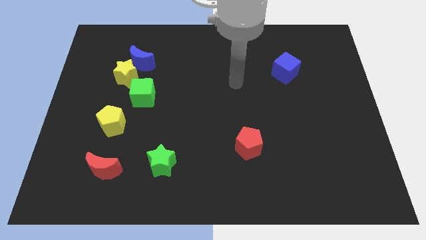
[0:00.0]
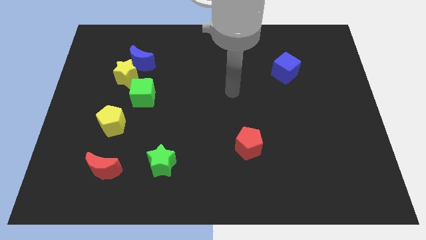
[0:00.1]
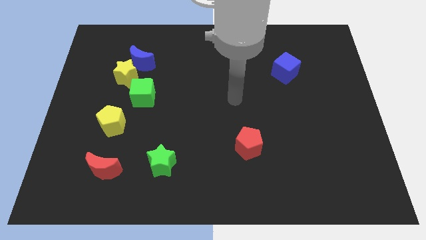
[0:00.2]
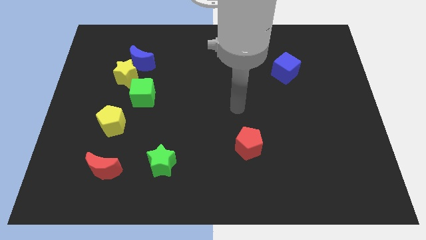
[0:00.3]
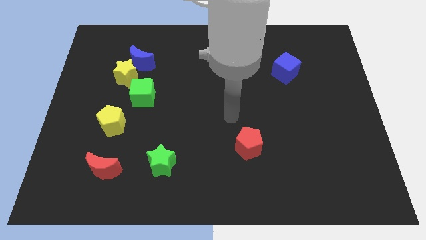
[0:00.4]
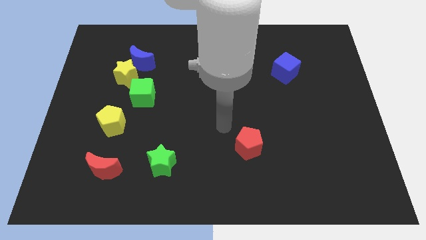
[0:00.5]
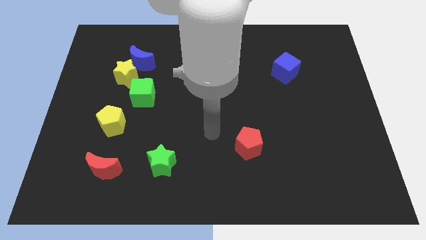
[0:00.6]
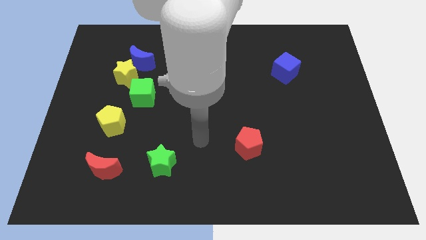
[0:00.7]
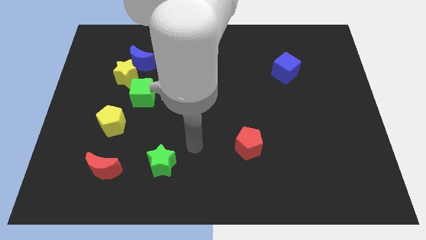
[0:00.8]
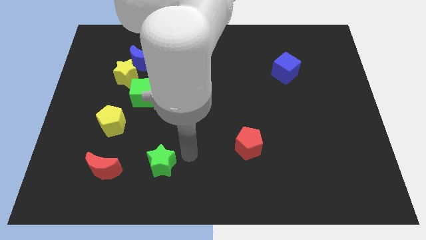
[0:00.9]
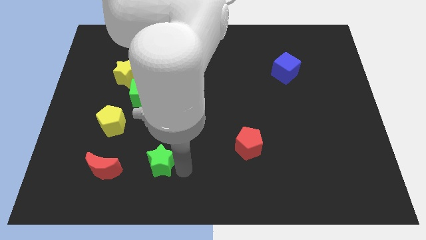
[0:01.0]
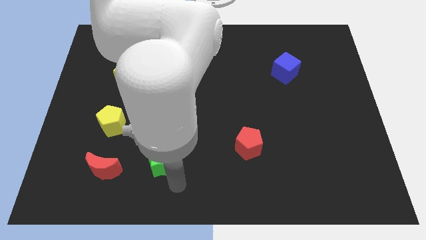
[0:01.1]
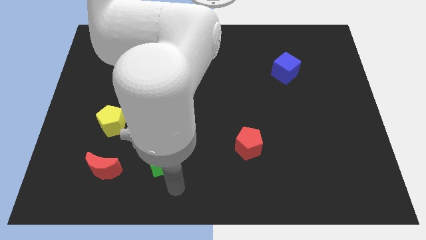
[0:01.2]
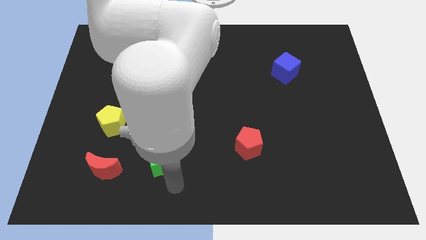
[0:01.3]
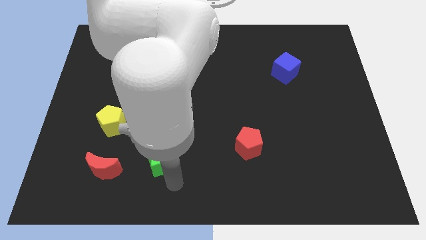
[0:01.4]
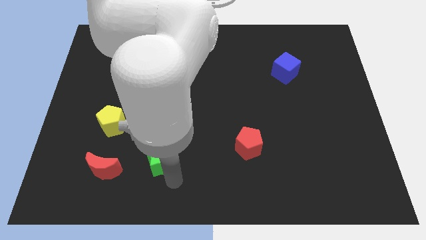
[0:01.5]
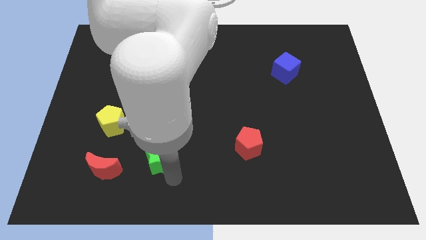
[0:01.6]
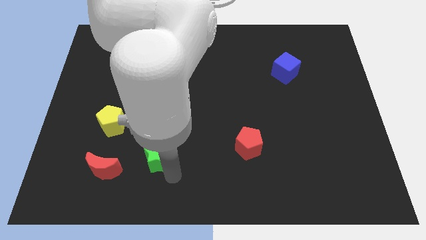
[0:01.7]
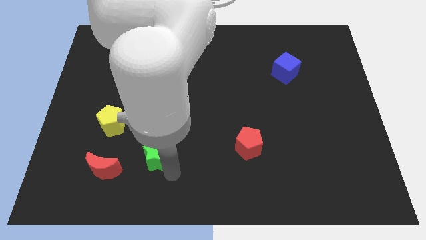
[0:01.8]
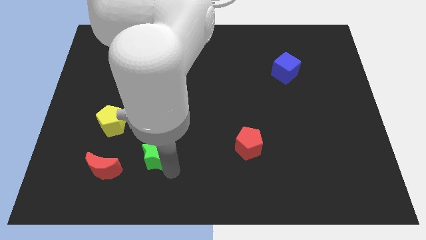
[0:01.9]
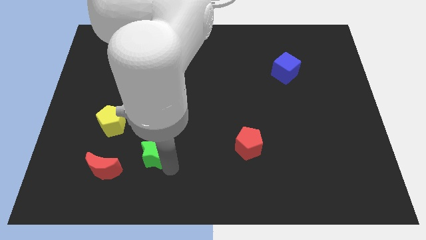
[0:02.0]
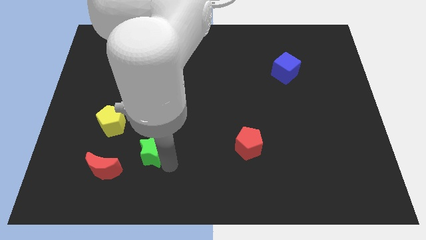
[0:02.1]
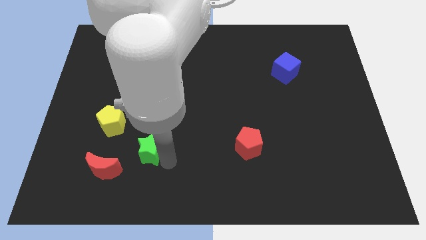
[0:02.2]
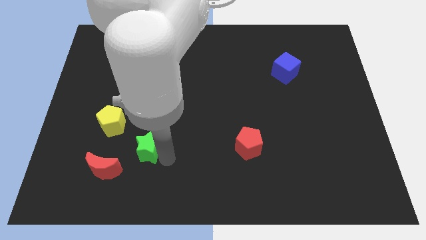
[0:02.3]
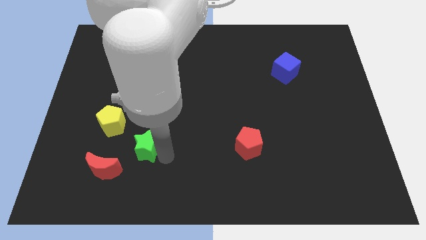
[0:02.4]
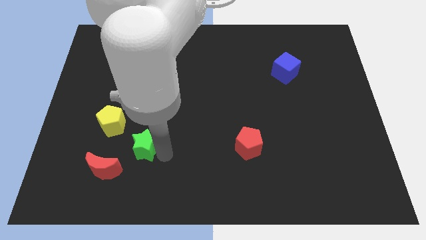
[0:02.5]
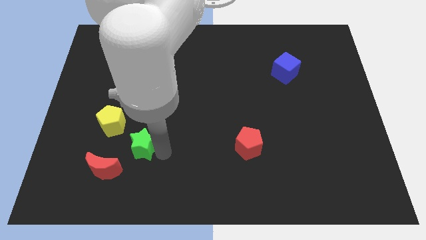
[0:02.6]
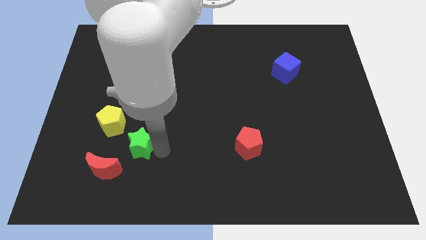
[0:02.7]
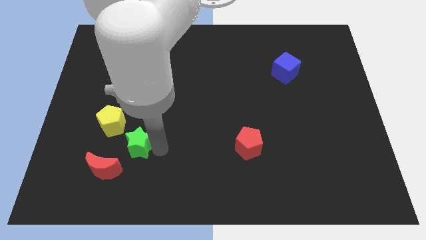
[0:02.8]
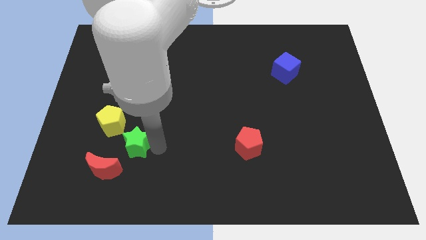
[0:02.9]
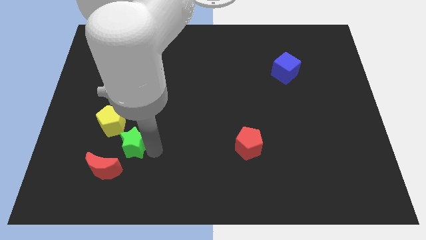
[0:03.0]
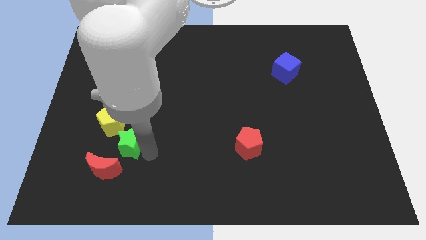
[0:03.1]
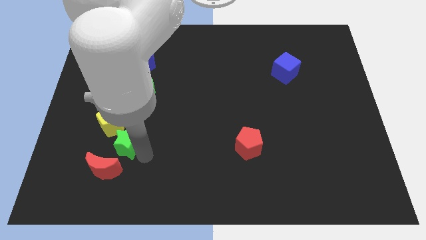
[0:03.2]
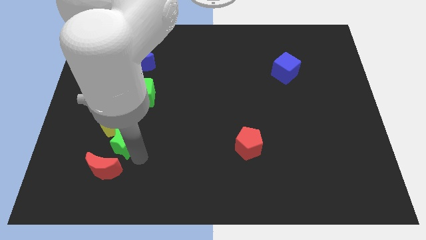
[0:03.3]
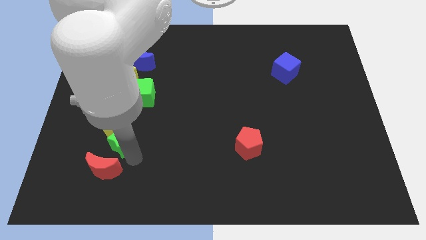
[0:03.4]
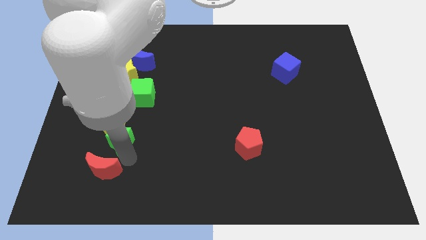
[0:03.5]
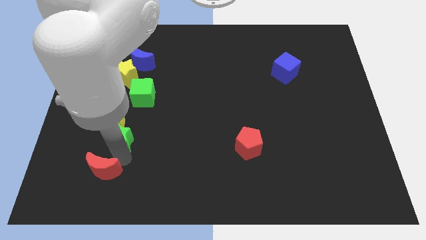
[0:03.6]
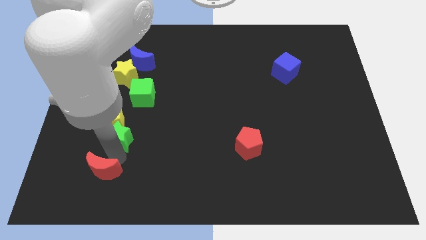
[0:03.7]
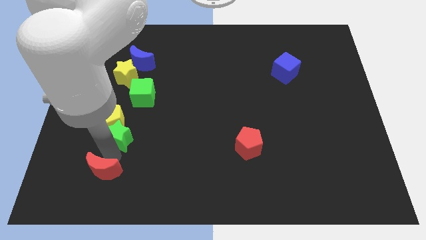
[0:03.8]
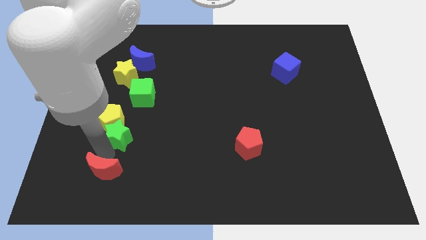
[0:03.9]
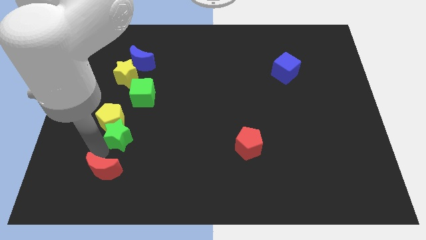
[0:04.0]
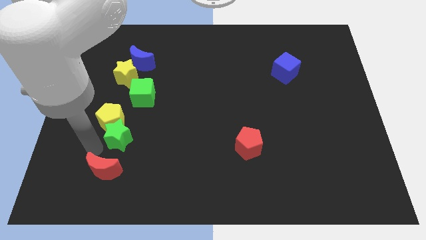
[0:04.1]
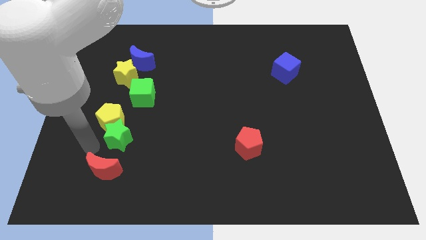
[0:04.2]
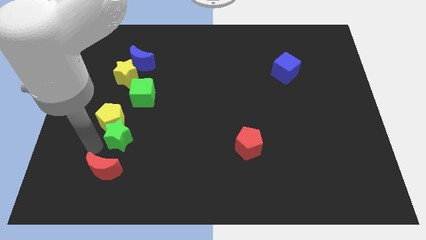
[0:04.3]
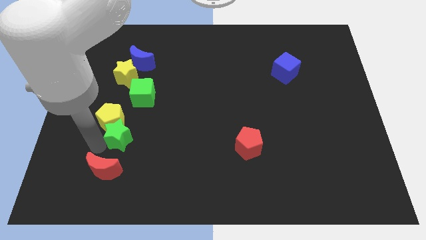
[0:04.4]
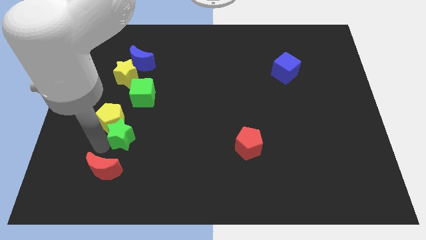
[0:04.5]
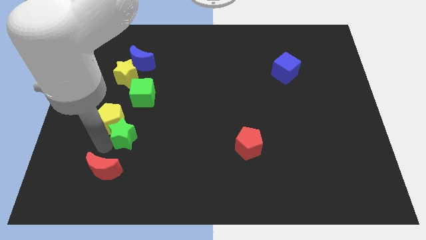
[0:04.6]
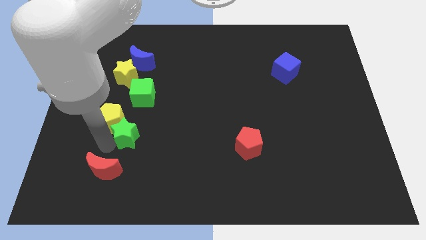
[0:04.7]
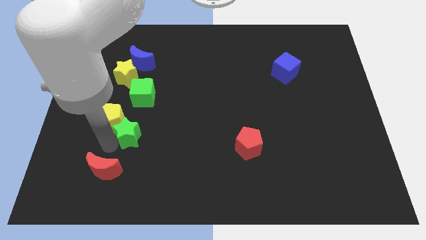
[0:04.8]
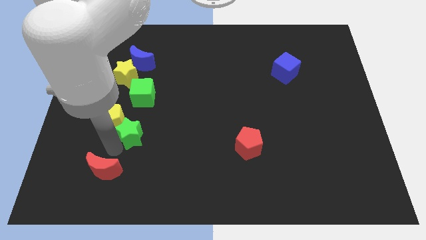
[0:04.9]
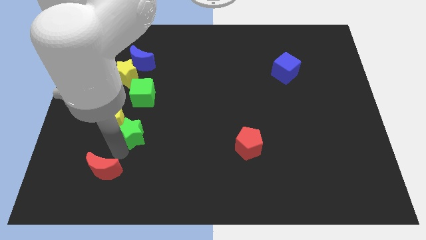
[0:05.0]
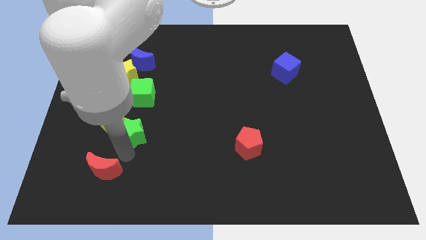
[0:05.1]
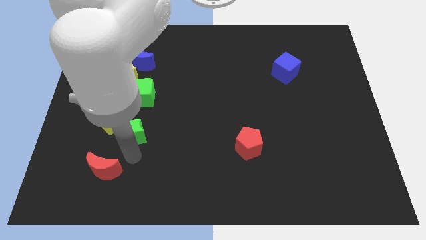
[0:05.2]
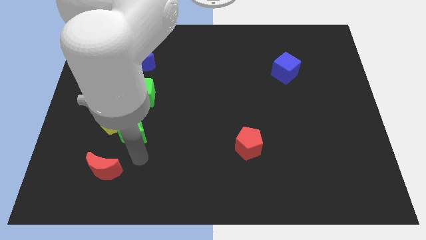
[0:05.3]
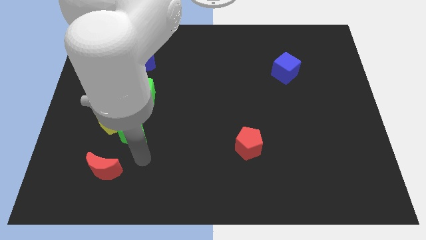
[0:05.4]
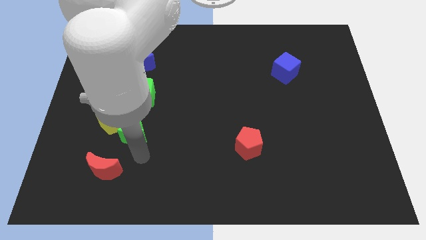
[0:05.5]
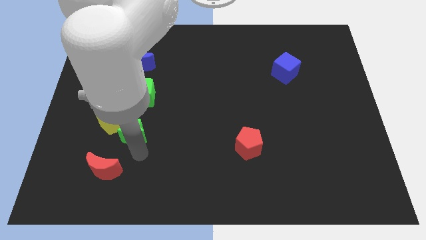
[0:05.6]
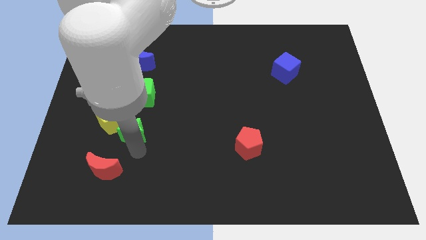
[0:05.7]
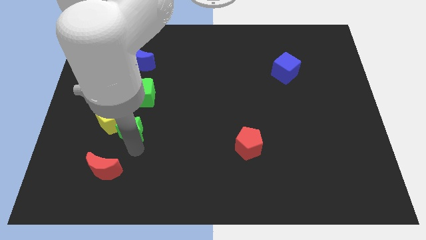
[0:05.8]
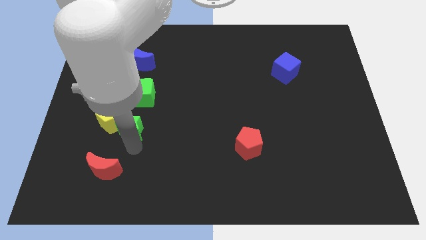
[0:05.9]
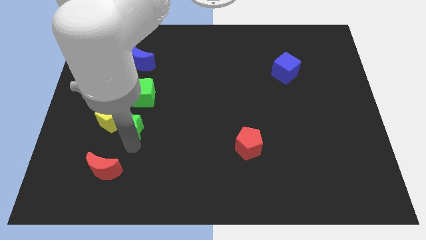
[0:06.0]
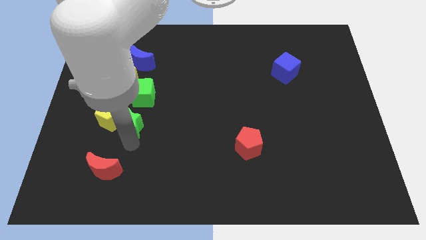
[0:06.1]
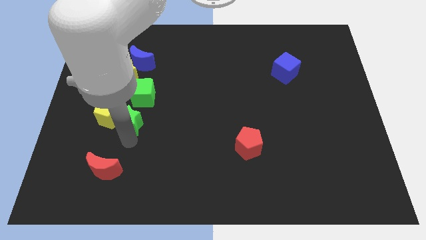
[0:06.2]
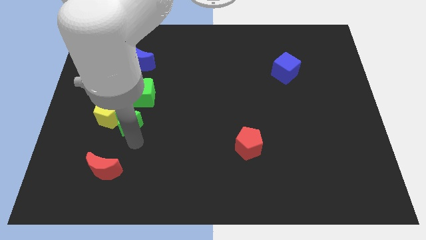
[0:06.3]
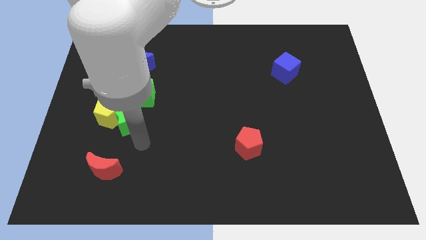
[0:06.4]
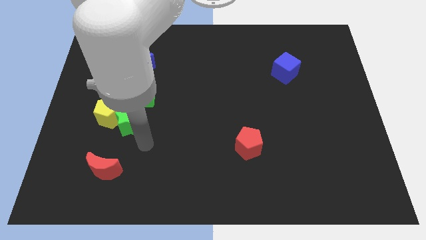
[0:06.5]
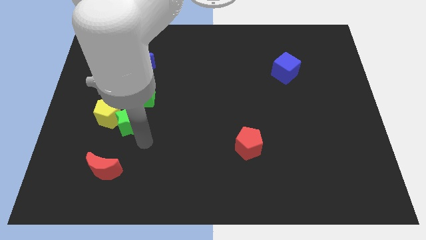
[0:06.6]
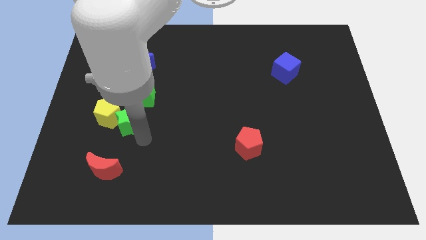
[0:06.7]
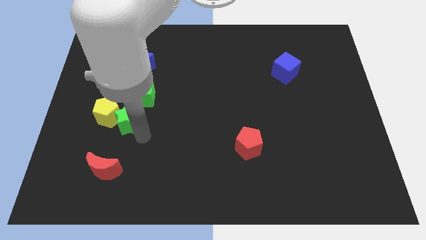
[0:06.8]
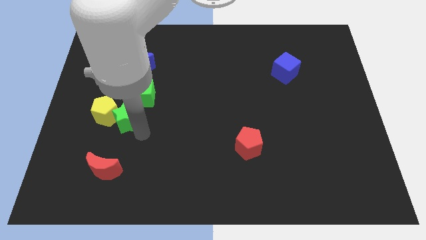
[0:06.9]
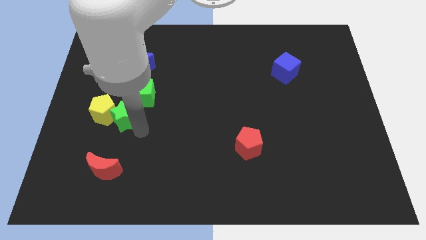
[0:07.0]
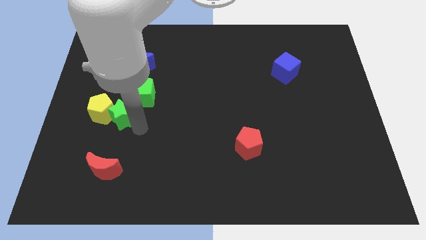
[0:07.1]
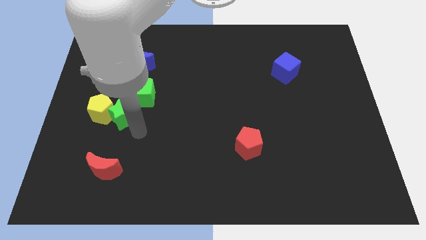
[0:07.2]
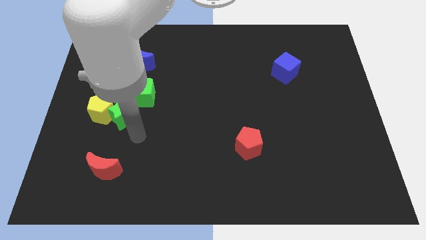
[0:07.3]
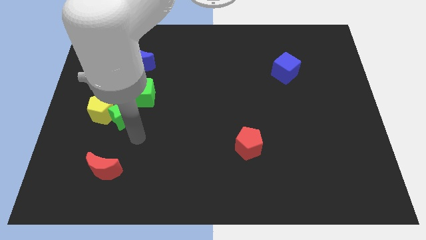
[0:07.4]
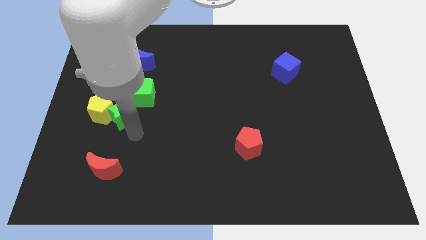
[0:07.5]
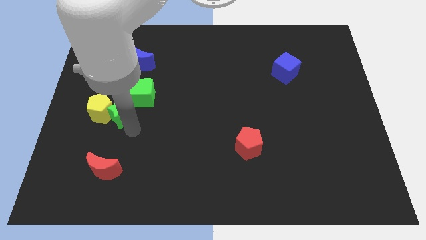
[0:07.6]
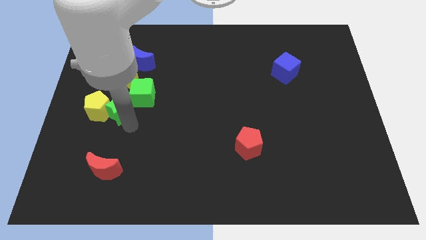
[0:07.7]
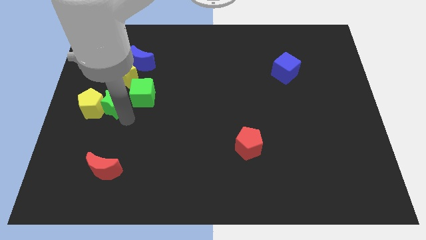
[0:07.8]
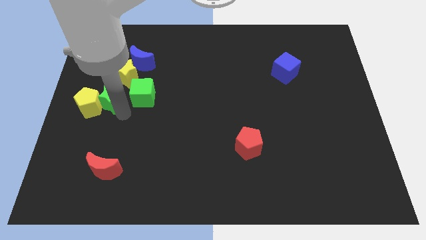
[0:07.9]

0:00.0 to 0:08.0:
push the green star to the bottom left side of the yellow star
